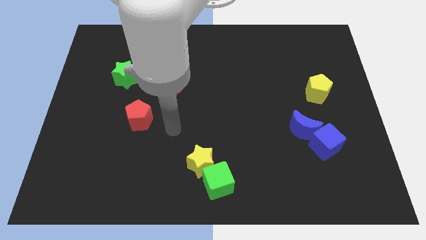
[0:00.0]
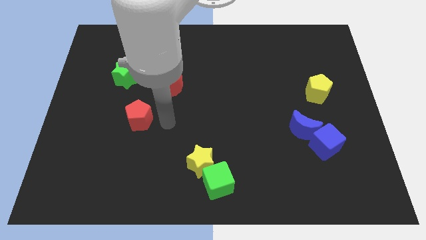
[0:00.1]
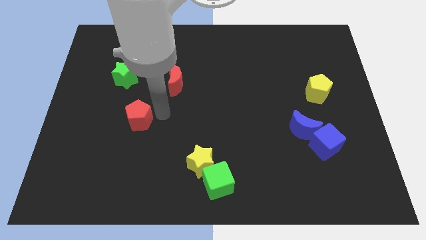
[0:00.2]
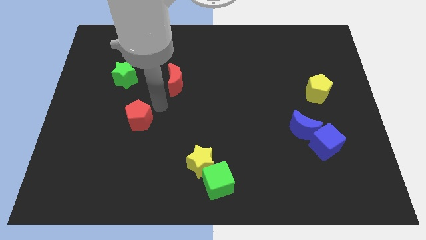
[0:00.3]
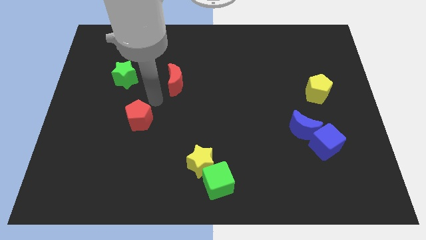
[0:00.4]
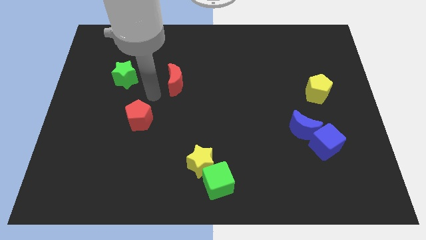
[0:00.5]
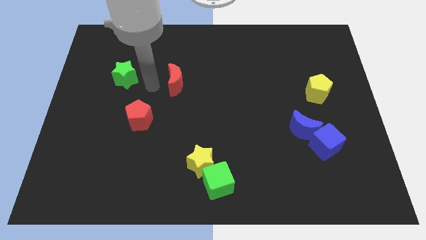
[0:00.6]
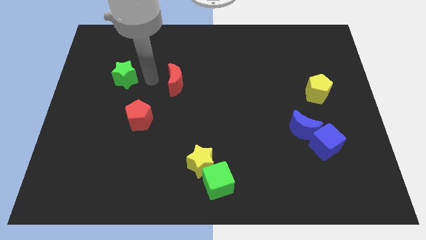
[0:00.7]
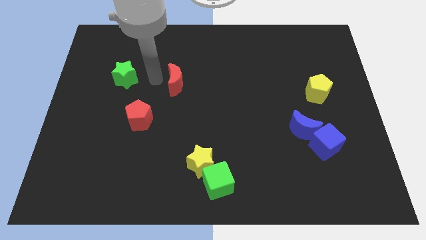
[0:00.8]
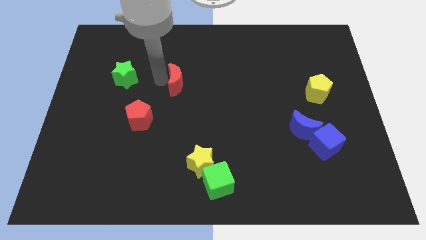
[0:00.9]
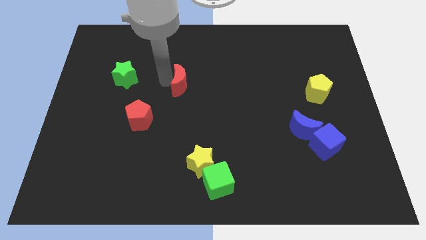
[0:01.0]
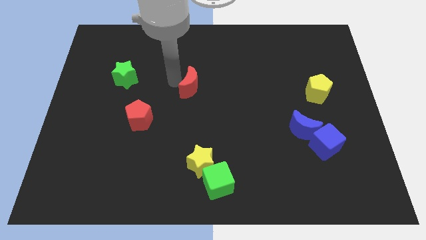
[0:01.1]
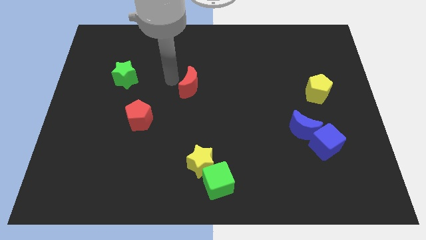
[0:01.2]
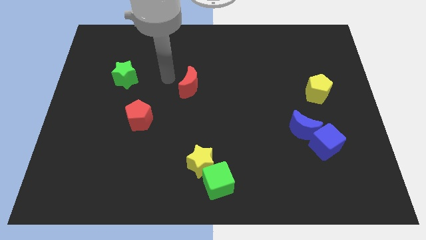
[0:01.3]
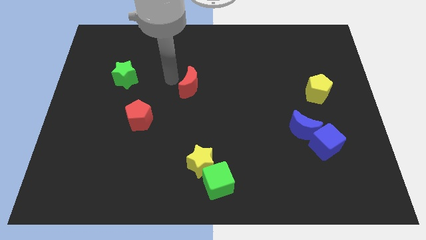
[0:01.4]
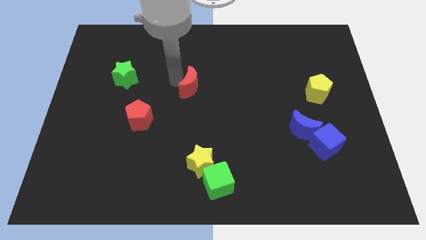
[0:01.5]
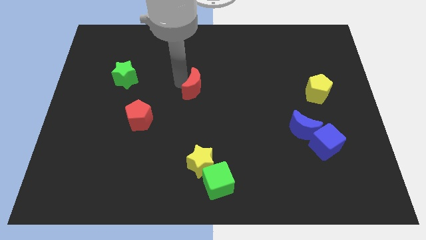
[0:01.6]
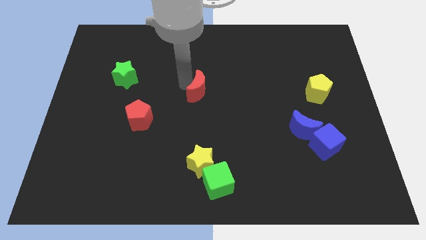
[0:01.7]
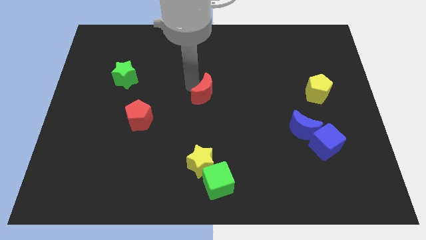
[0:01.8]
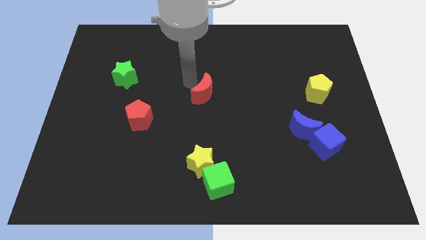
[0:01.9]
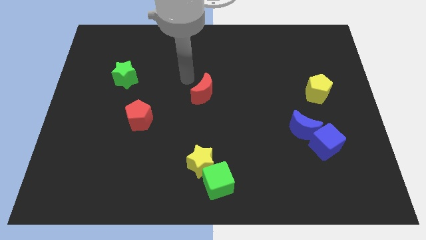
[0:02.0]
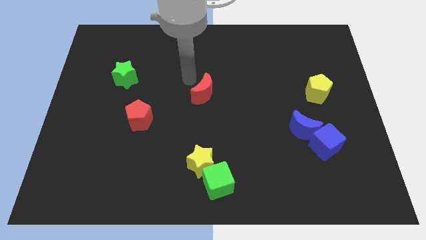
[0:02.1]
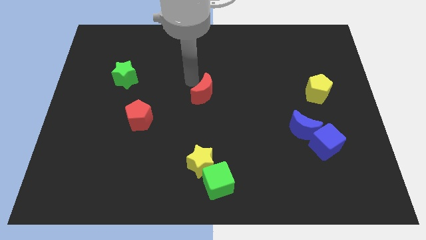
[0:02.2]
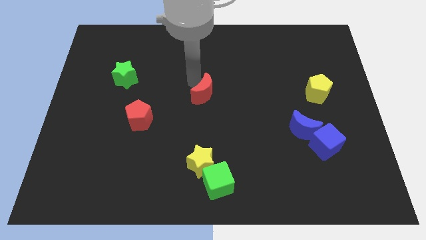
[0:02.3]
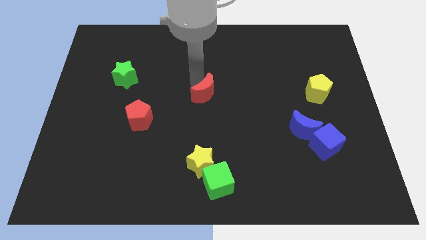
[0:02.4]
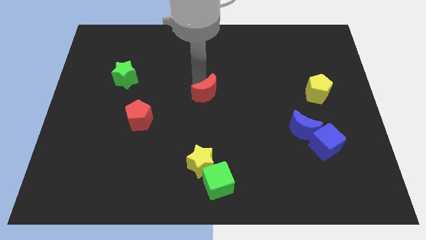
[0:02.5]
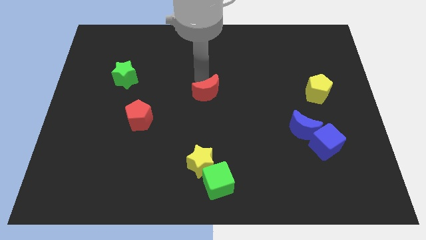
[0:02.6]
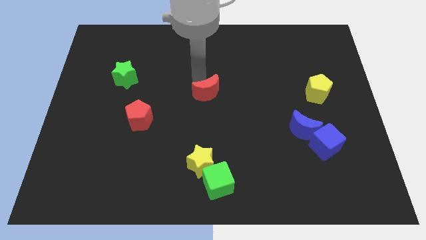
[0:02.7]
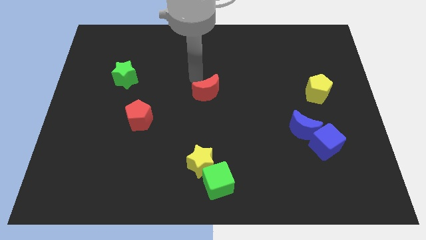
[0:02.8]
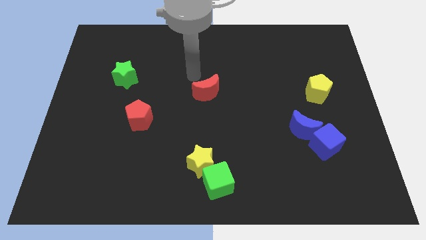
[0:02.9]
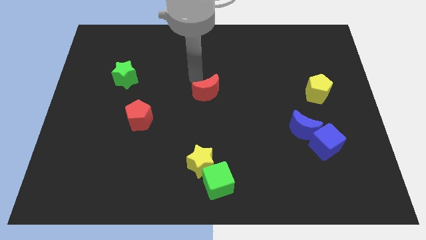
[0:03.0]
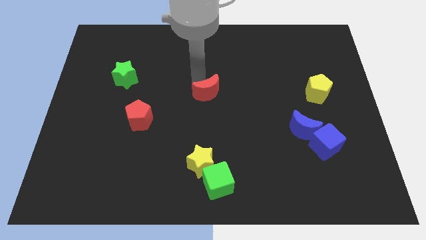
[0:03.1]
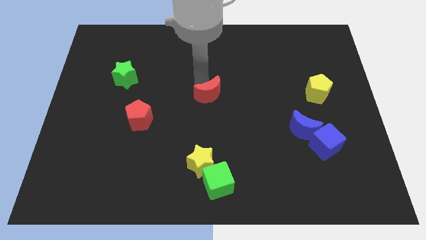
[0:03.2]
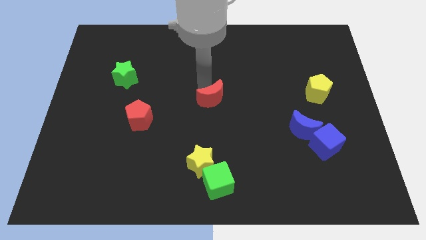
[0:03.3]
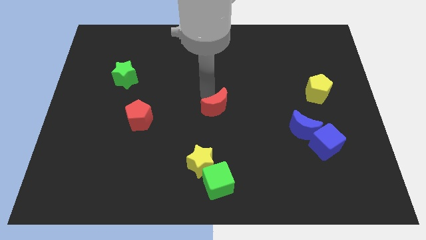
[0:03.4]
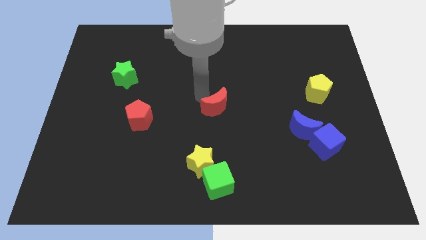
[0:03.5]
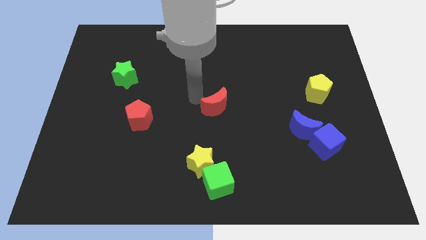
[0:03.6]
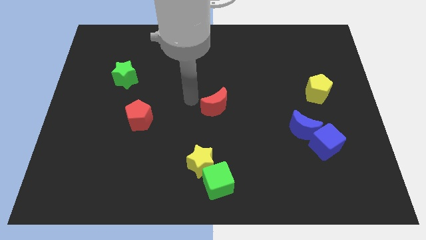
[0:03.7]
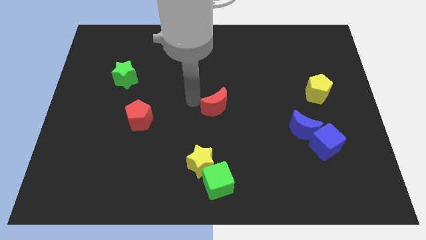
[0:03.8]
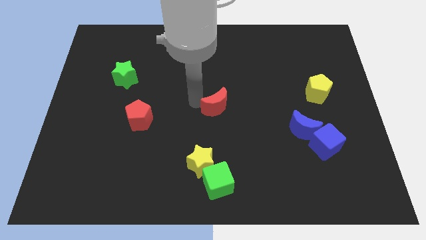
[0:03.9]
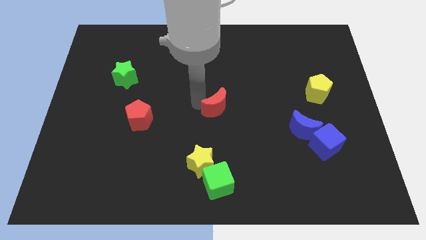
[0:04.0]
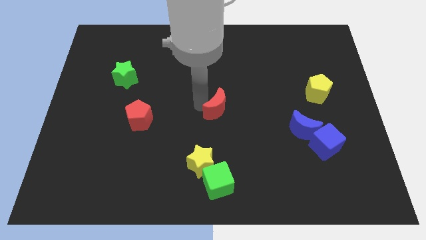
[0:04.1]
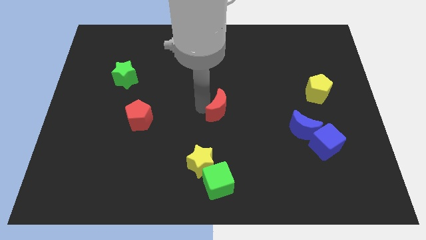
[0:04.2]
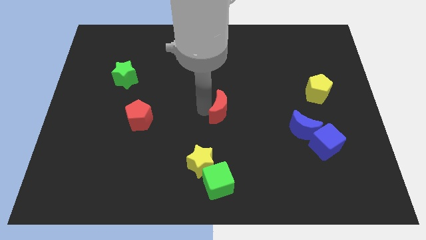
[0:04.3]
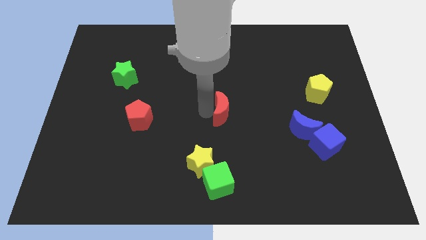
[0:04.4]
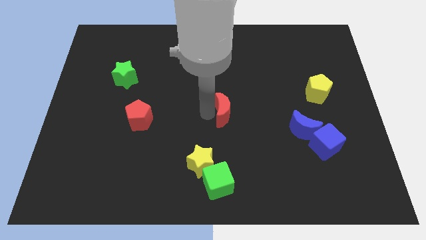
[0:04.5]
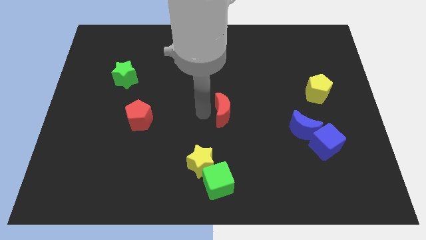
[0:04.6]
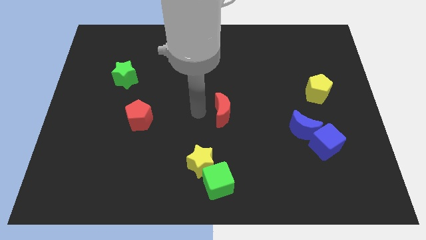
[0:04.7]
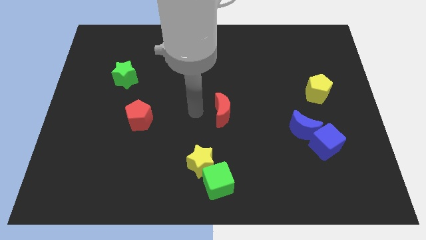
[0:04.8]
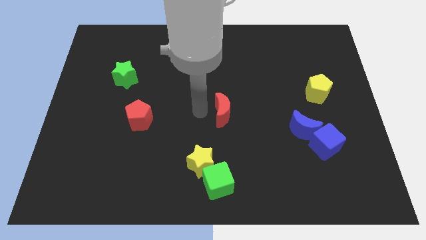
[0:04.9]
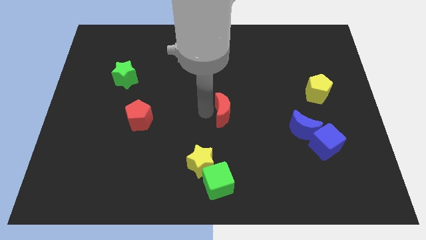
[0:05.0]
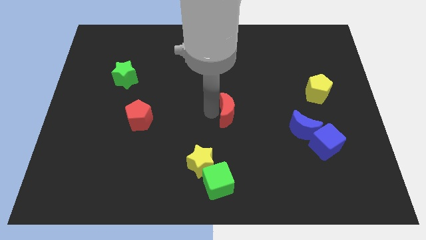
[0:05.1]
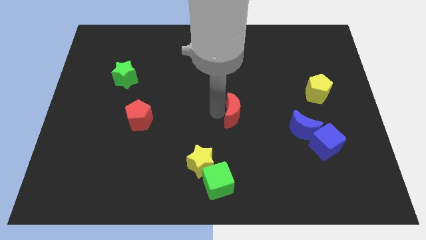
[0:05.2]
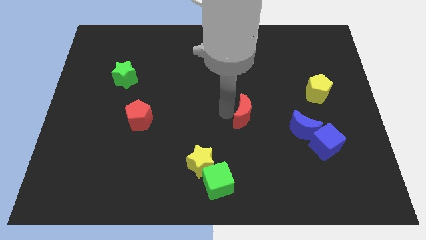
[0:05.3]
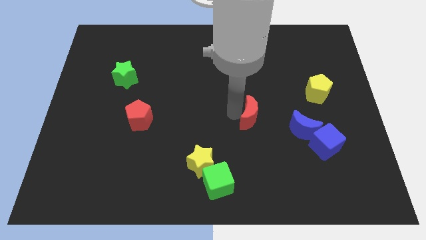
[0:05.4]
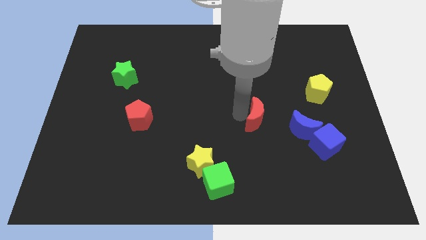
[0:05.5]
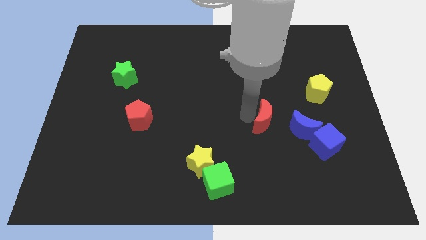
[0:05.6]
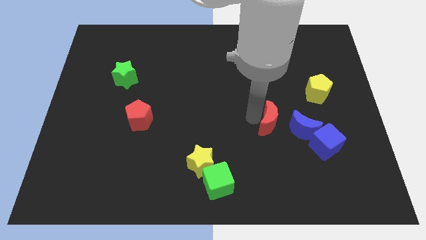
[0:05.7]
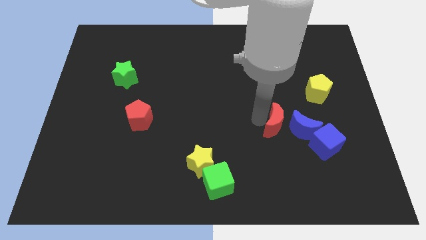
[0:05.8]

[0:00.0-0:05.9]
slide the red moon to the blue moon

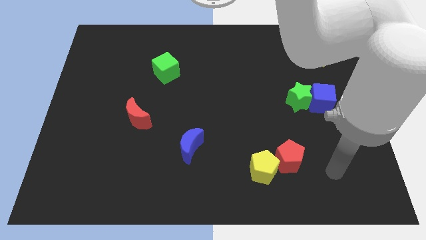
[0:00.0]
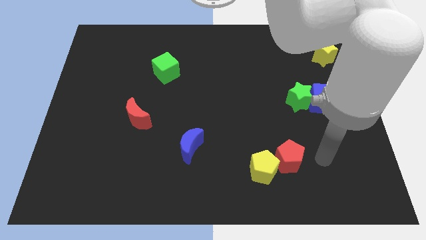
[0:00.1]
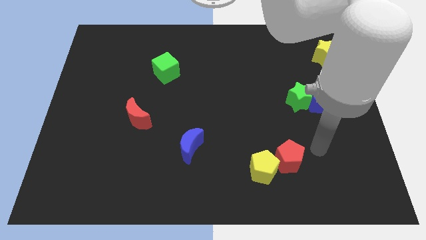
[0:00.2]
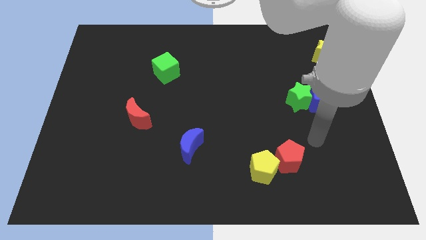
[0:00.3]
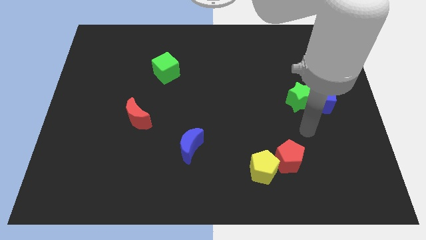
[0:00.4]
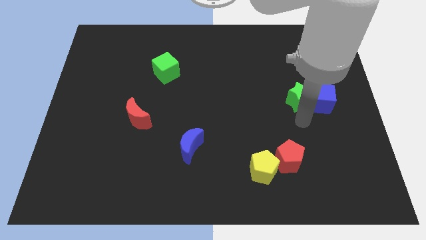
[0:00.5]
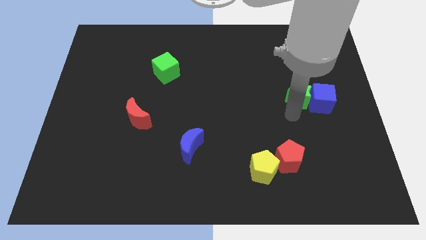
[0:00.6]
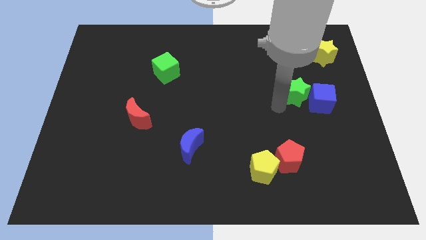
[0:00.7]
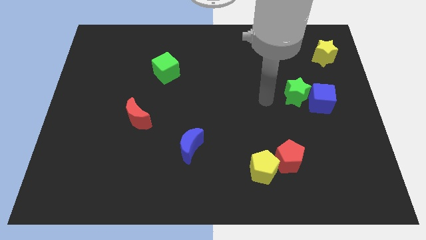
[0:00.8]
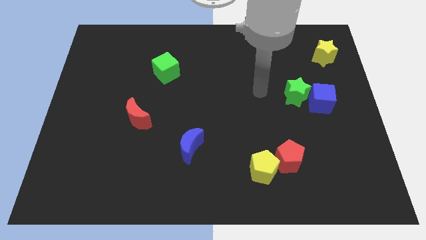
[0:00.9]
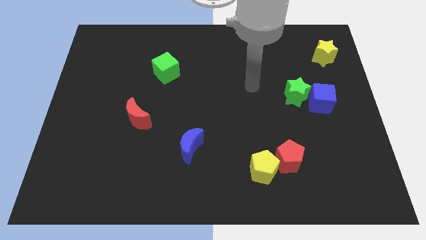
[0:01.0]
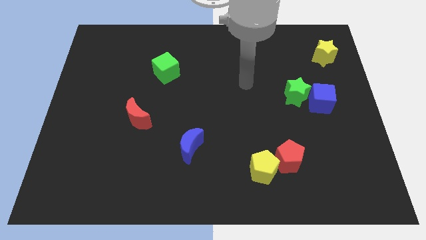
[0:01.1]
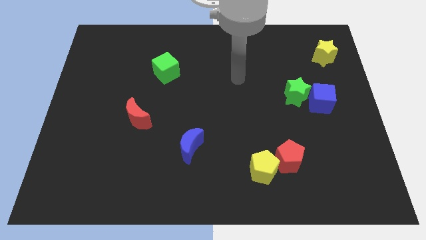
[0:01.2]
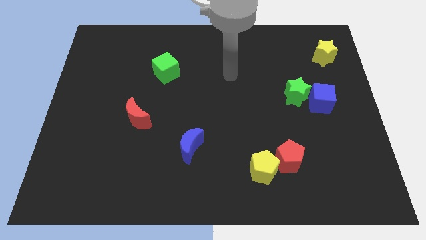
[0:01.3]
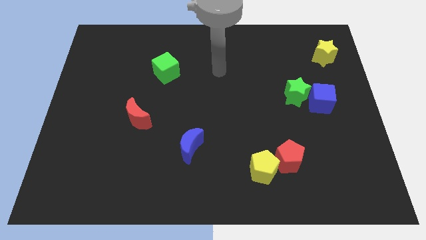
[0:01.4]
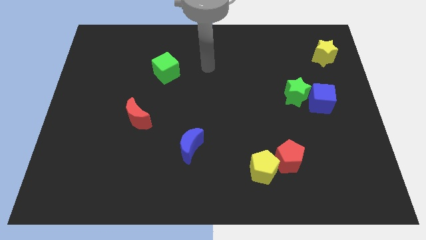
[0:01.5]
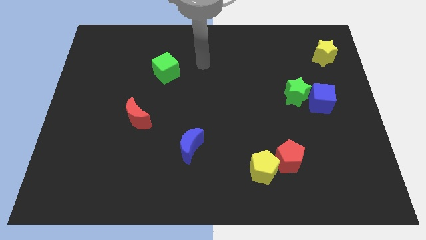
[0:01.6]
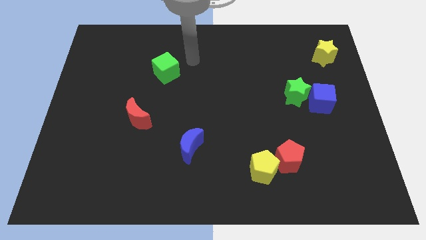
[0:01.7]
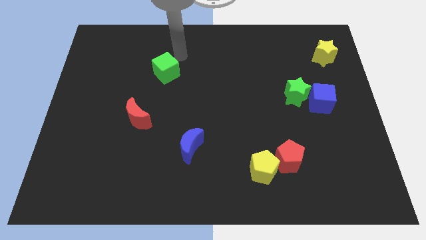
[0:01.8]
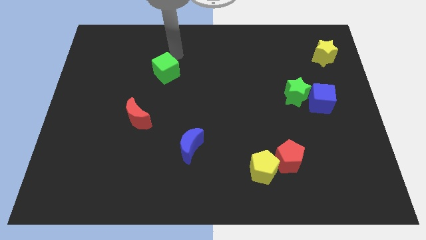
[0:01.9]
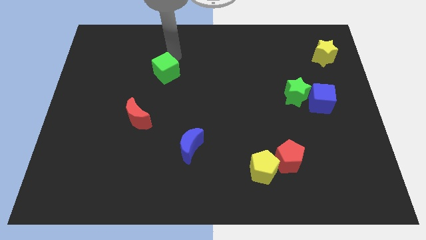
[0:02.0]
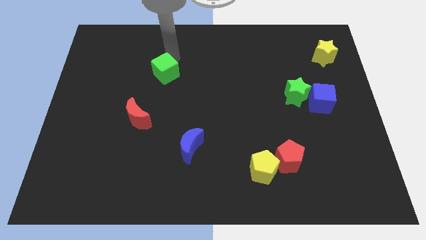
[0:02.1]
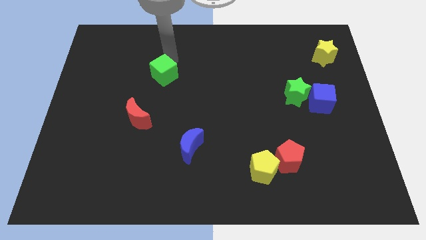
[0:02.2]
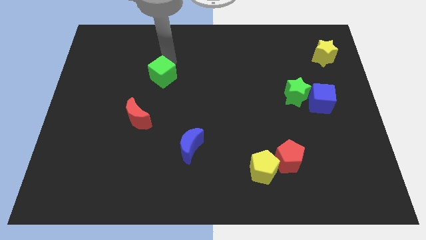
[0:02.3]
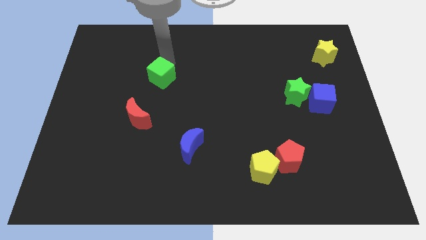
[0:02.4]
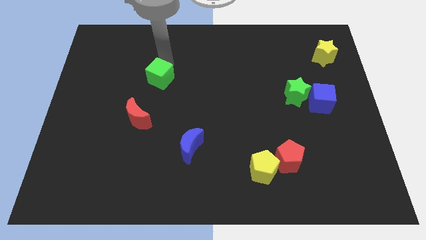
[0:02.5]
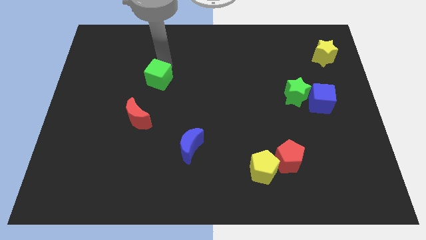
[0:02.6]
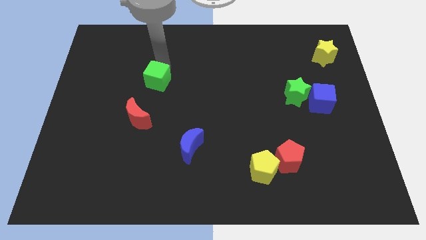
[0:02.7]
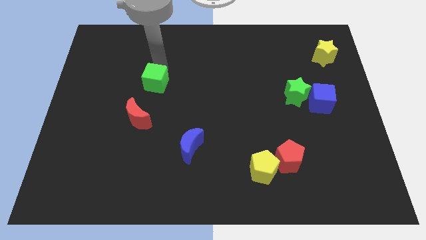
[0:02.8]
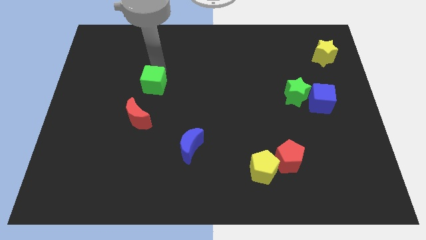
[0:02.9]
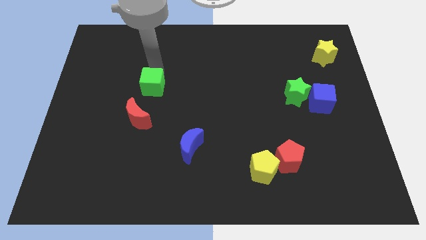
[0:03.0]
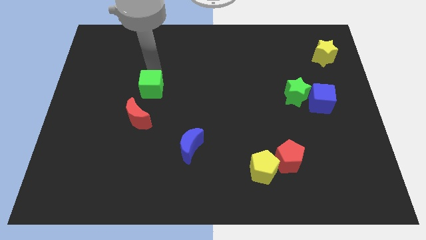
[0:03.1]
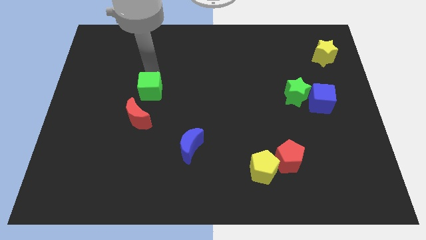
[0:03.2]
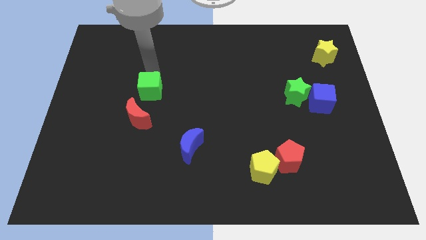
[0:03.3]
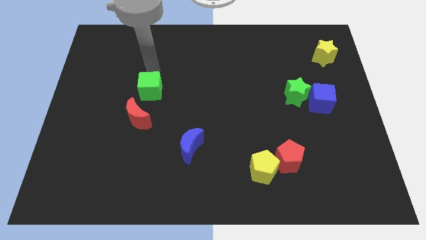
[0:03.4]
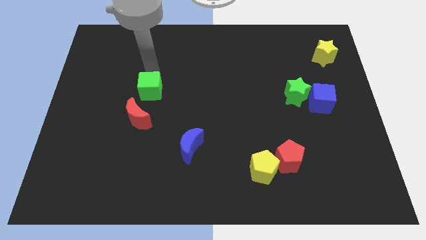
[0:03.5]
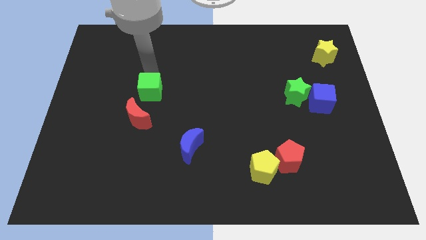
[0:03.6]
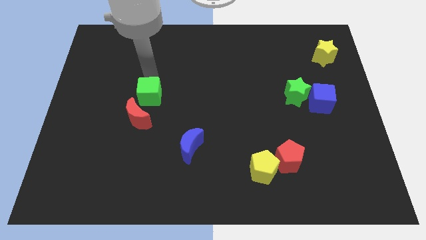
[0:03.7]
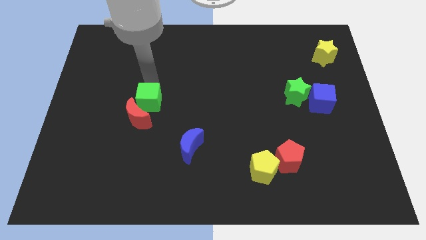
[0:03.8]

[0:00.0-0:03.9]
move the green cube close to the red moon
